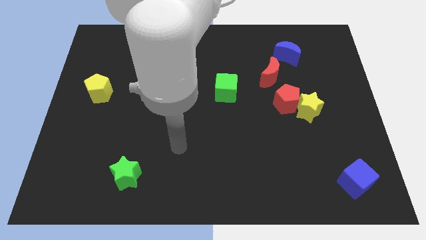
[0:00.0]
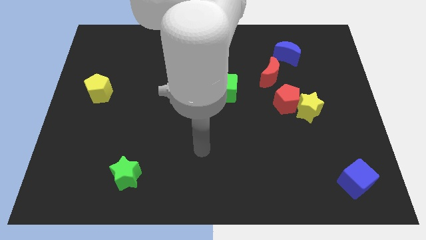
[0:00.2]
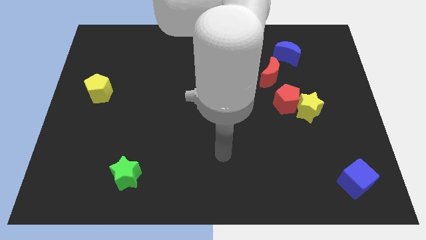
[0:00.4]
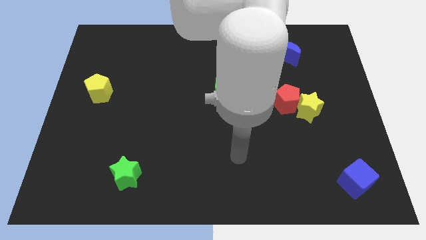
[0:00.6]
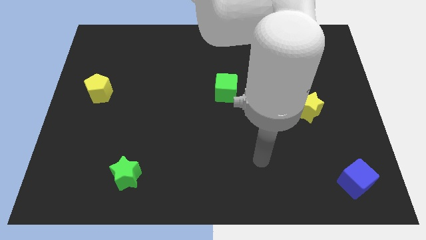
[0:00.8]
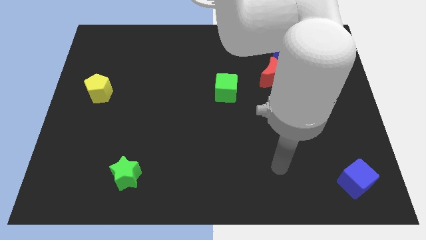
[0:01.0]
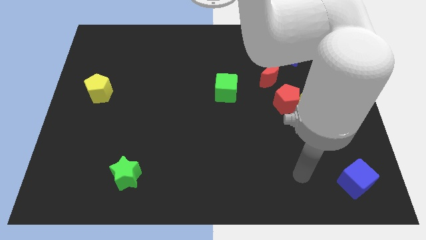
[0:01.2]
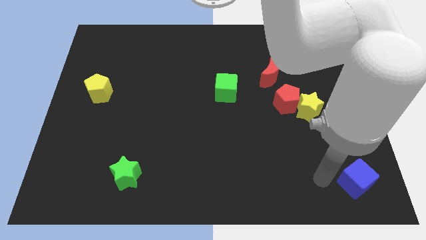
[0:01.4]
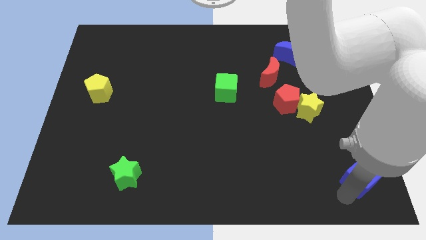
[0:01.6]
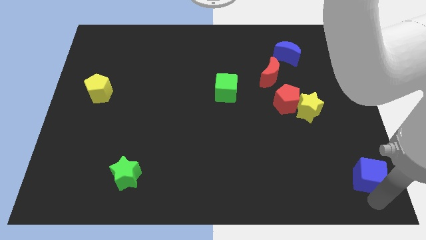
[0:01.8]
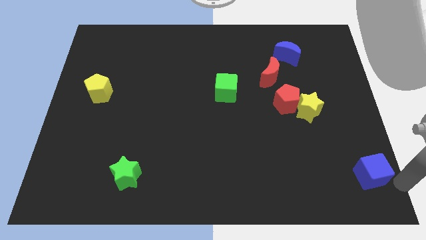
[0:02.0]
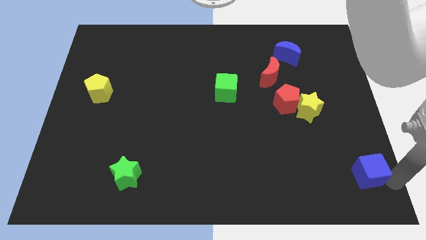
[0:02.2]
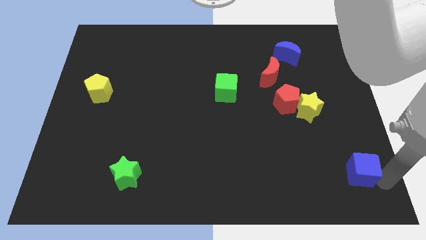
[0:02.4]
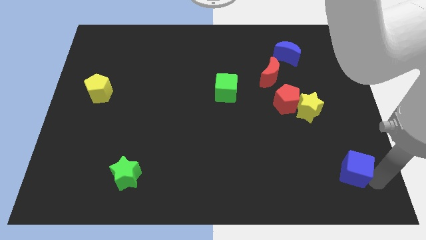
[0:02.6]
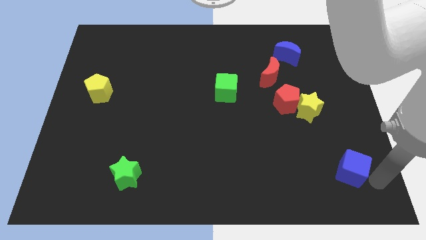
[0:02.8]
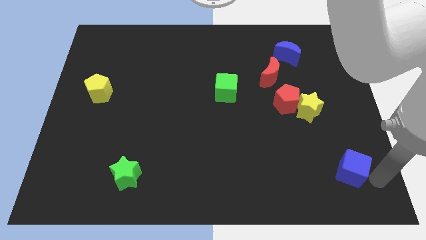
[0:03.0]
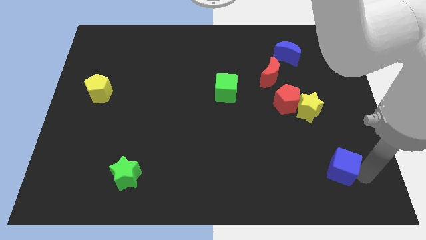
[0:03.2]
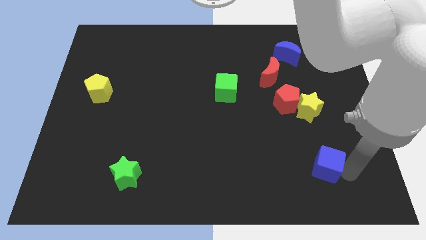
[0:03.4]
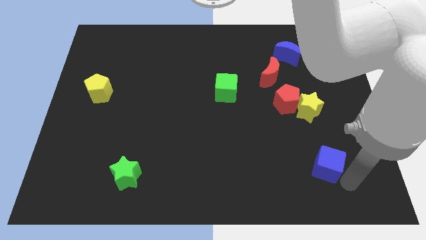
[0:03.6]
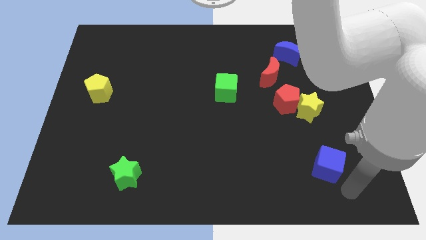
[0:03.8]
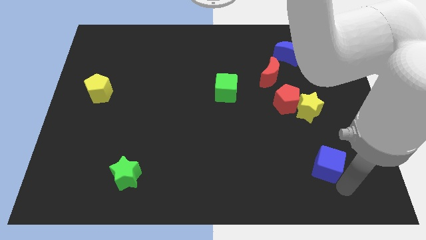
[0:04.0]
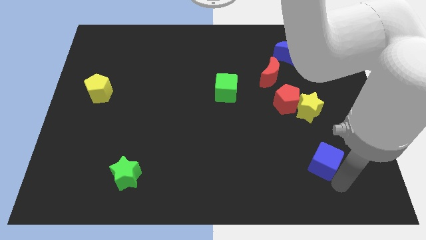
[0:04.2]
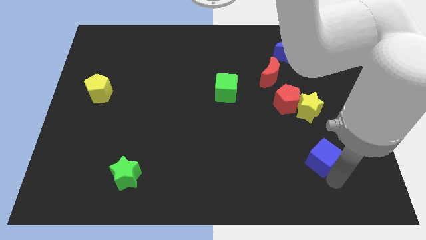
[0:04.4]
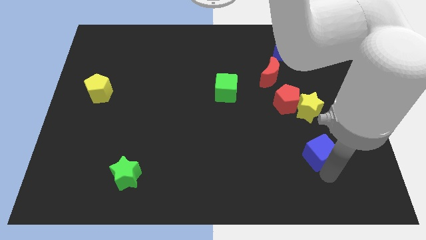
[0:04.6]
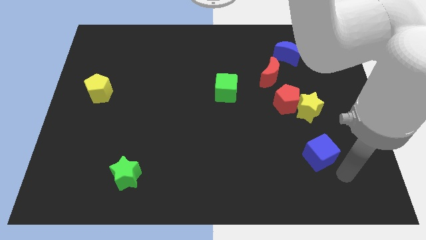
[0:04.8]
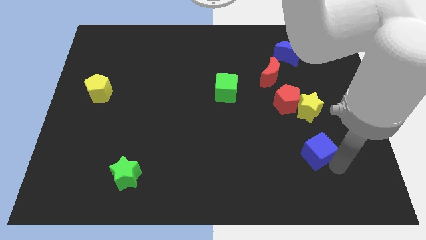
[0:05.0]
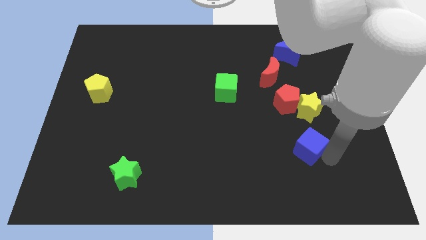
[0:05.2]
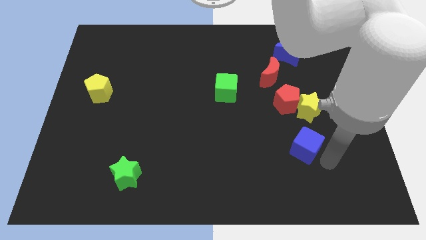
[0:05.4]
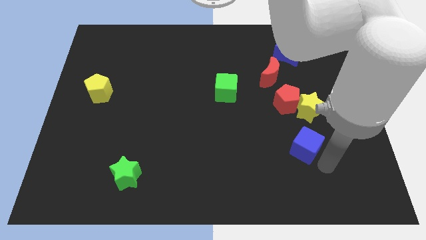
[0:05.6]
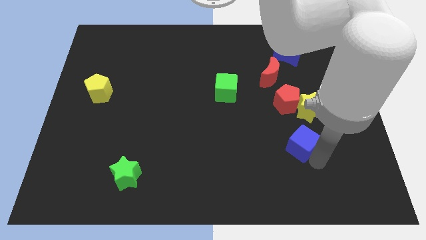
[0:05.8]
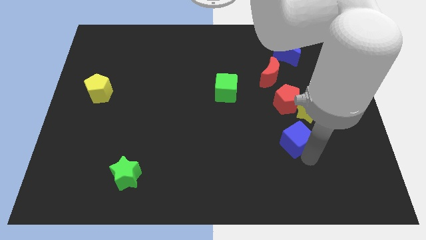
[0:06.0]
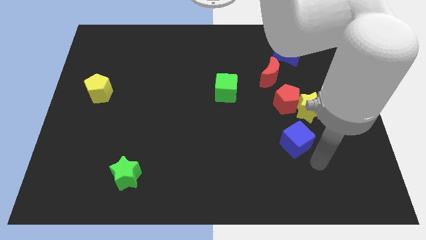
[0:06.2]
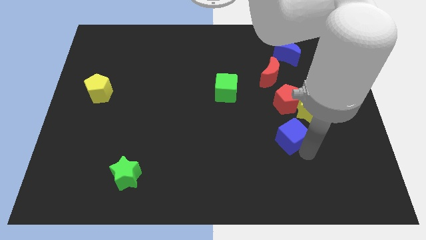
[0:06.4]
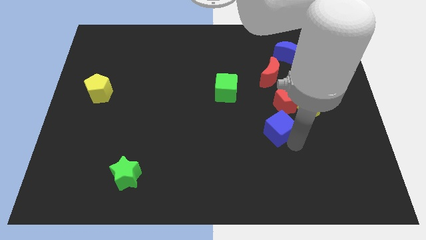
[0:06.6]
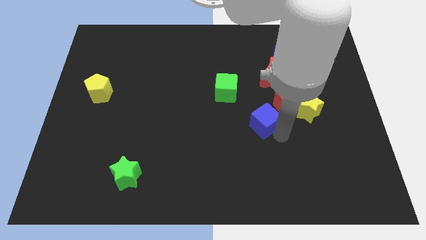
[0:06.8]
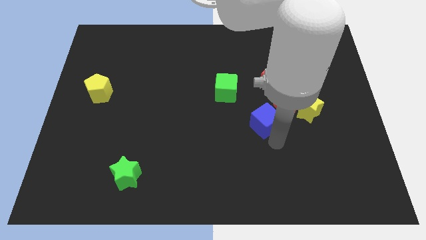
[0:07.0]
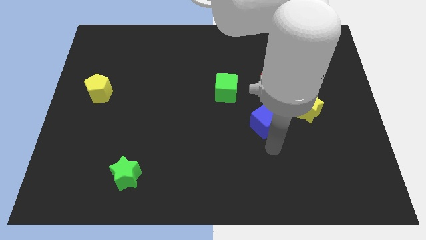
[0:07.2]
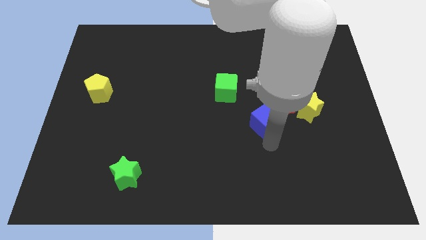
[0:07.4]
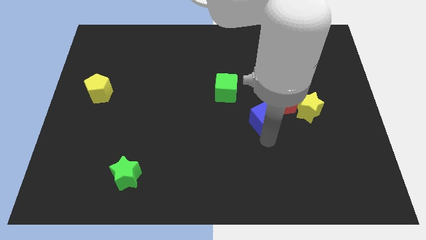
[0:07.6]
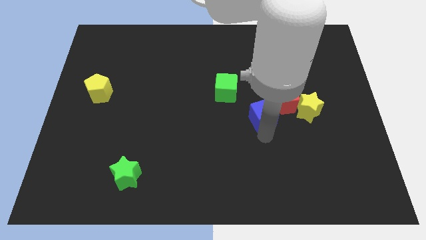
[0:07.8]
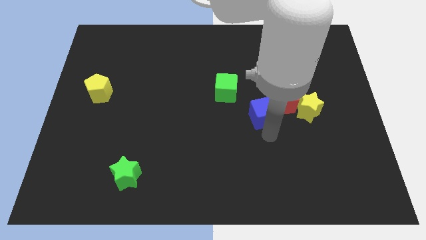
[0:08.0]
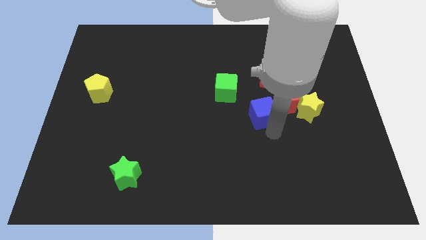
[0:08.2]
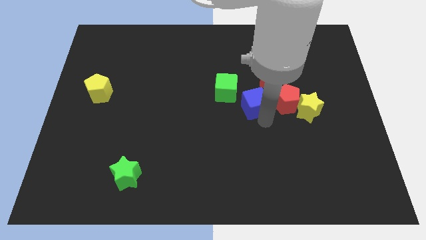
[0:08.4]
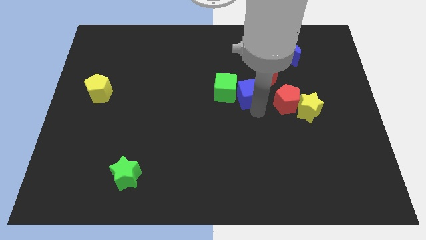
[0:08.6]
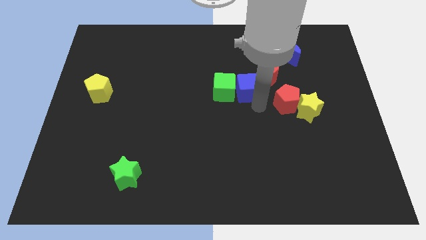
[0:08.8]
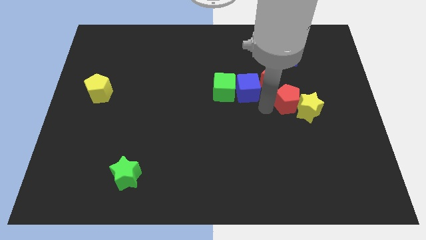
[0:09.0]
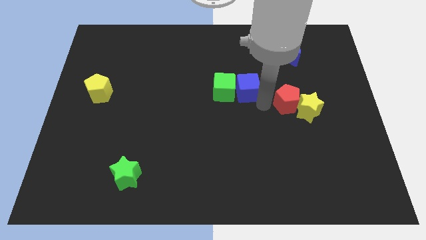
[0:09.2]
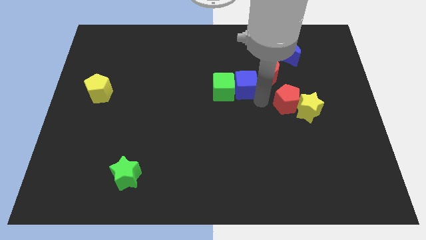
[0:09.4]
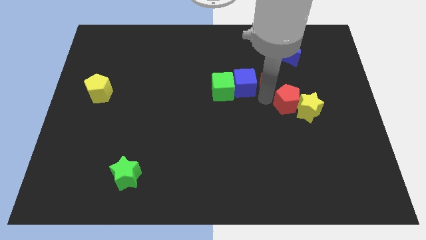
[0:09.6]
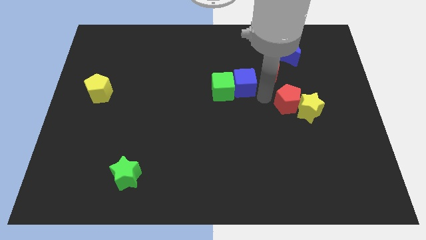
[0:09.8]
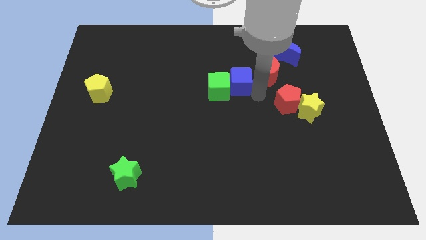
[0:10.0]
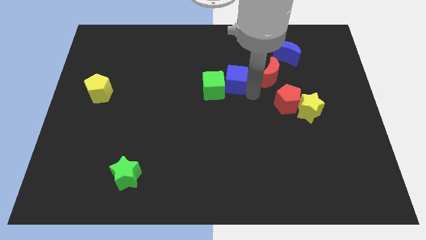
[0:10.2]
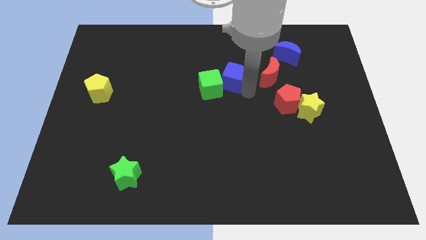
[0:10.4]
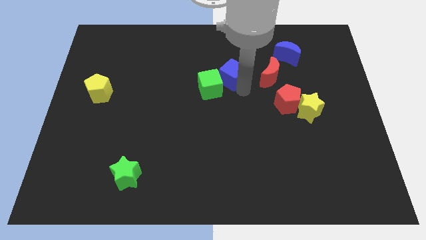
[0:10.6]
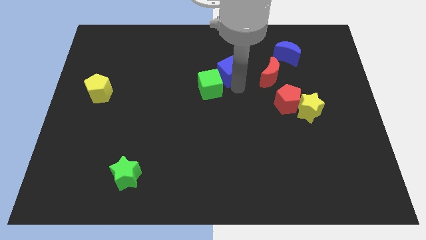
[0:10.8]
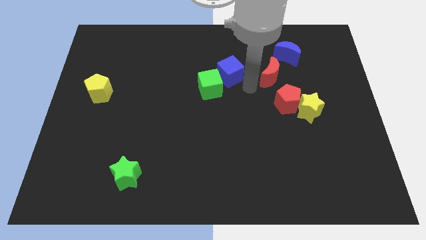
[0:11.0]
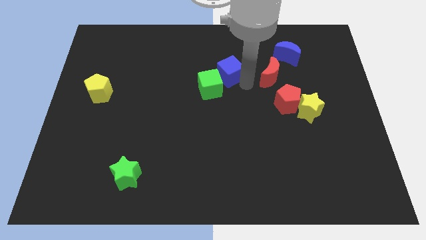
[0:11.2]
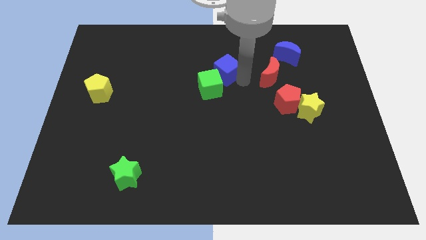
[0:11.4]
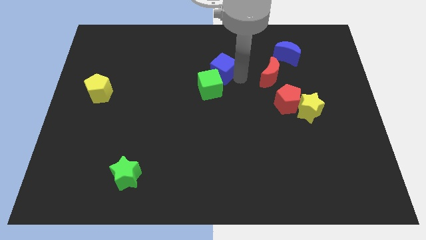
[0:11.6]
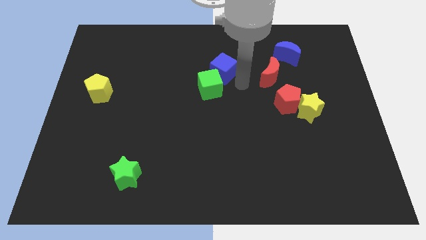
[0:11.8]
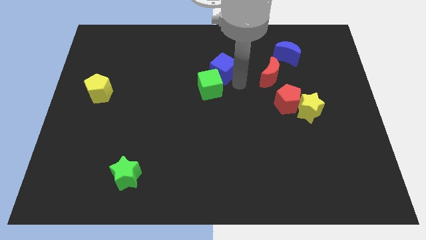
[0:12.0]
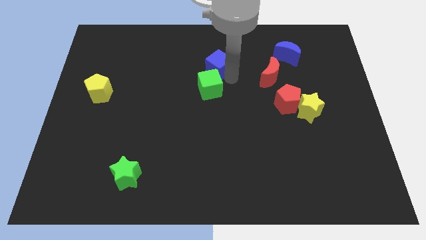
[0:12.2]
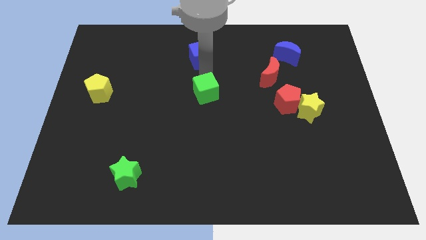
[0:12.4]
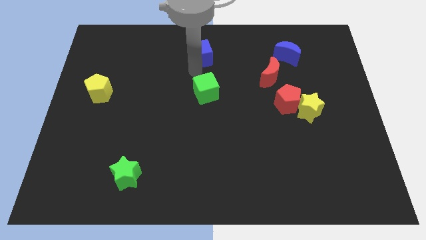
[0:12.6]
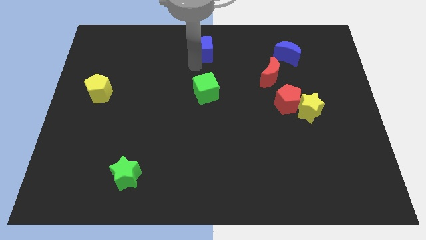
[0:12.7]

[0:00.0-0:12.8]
slide the blue cube to the towards your base
